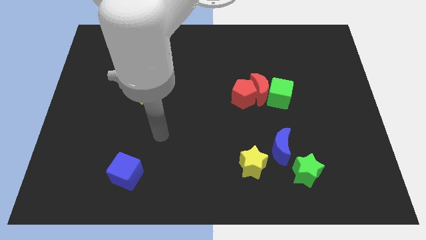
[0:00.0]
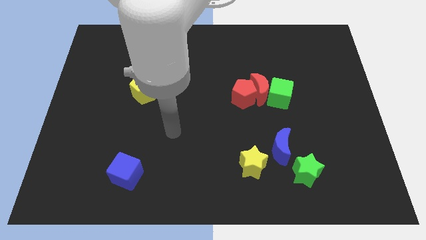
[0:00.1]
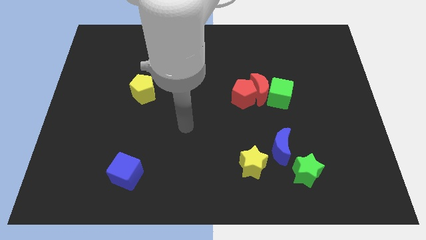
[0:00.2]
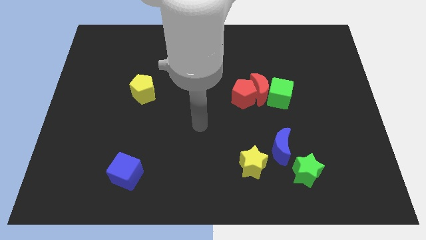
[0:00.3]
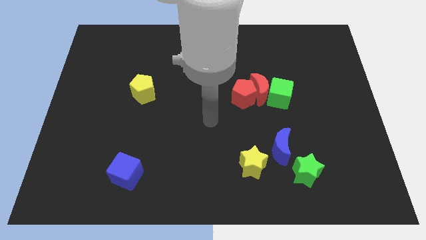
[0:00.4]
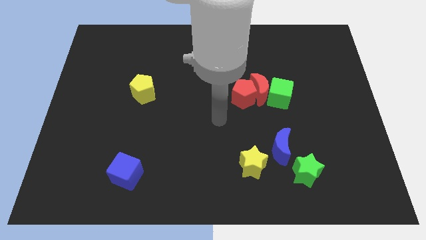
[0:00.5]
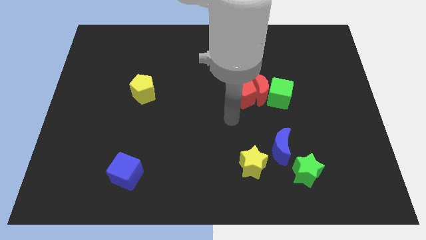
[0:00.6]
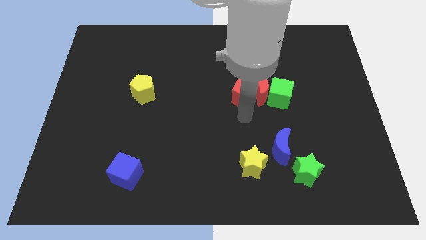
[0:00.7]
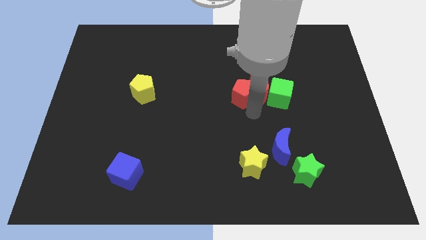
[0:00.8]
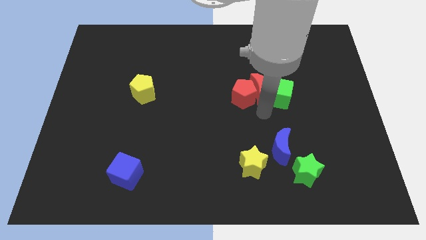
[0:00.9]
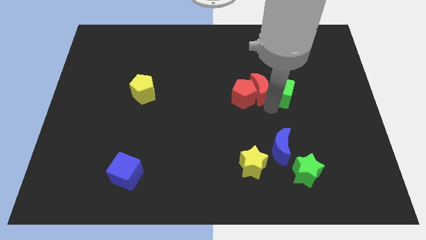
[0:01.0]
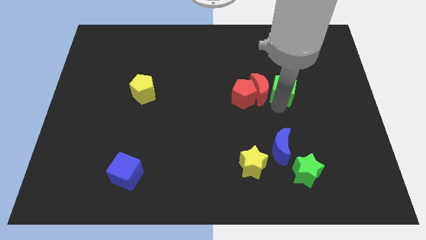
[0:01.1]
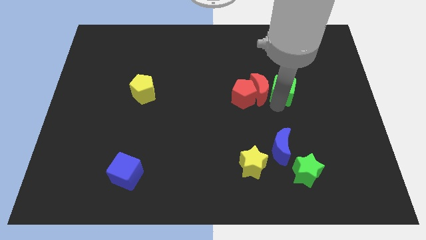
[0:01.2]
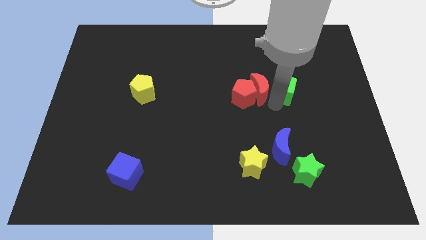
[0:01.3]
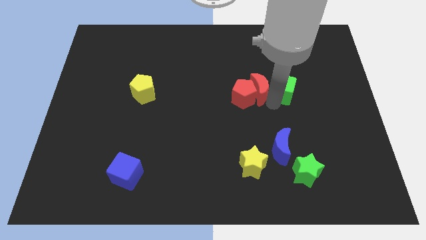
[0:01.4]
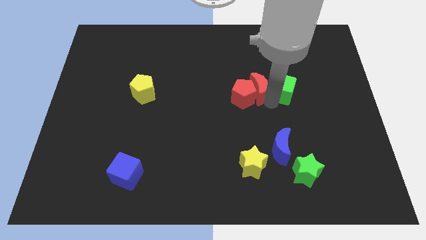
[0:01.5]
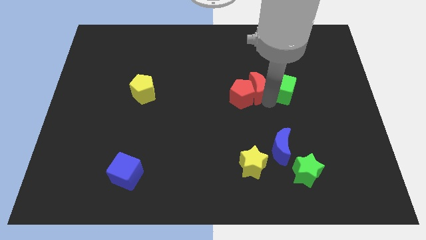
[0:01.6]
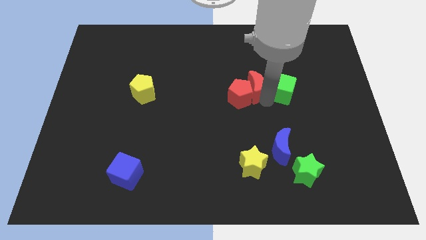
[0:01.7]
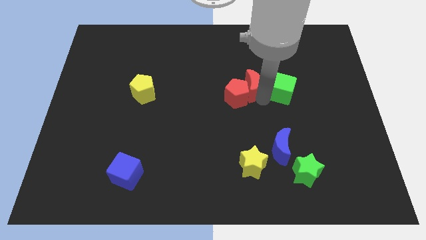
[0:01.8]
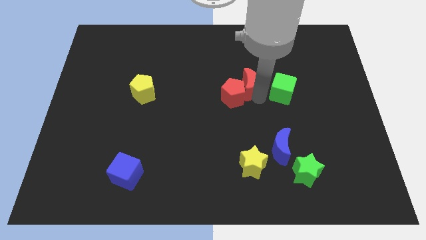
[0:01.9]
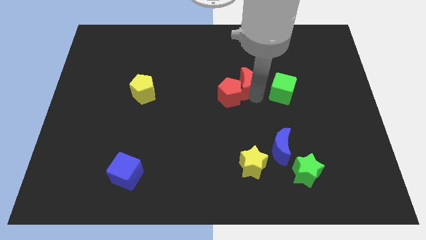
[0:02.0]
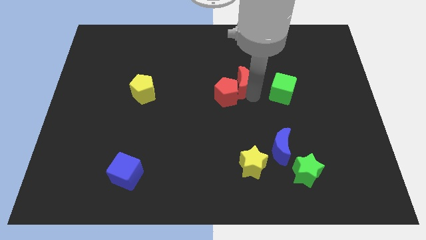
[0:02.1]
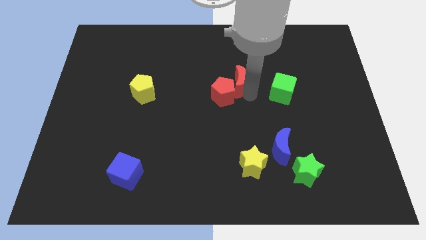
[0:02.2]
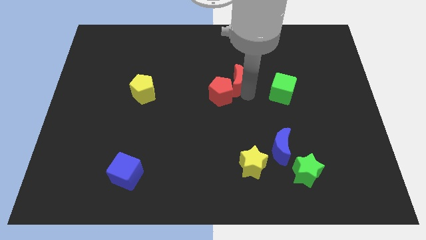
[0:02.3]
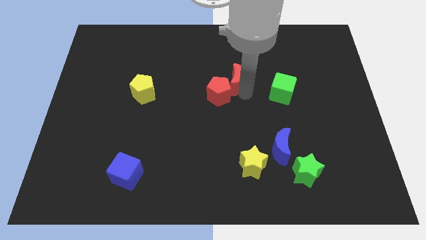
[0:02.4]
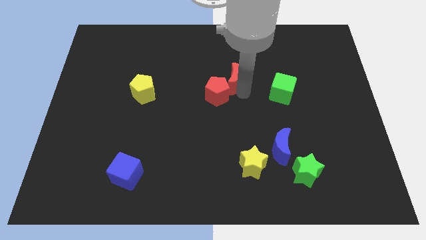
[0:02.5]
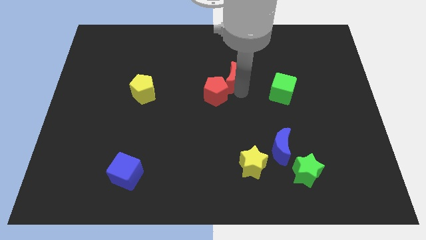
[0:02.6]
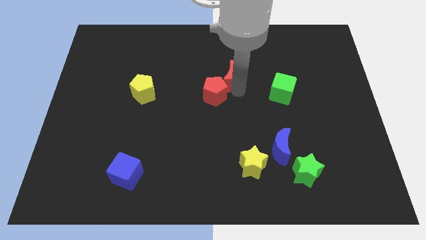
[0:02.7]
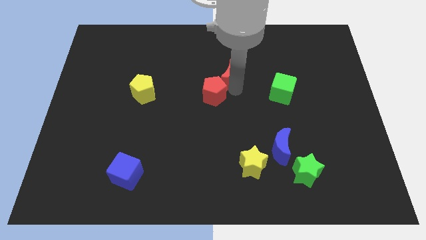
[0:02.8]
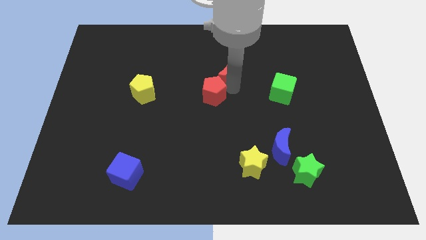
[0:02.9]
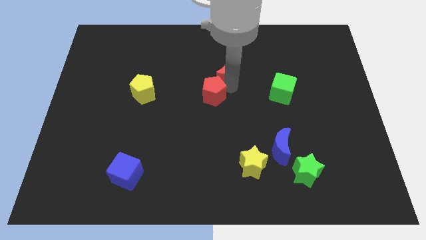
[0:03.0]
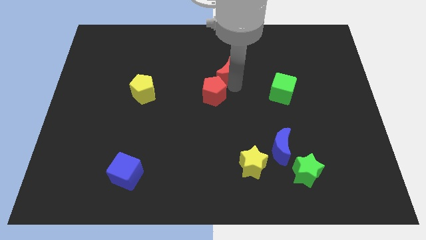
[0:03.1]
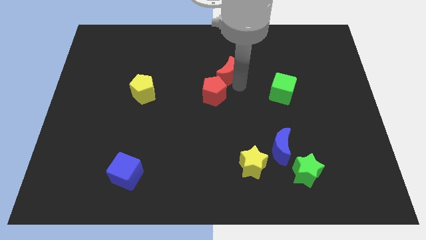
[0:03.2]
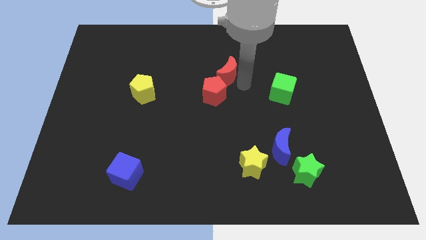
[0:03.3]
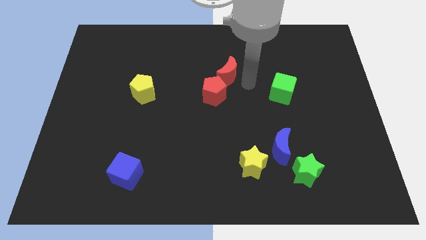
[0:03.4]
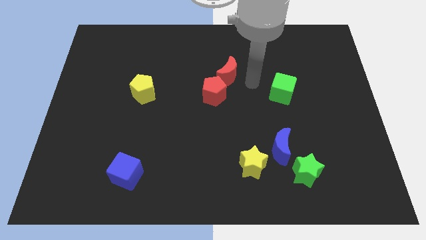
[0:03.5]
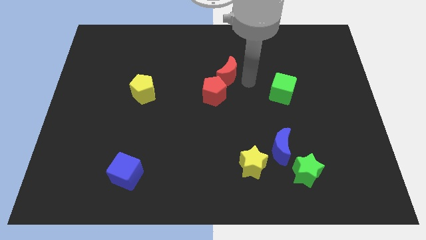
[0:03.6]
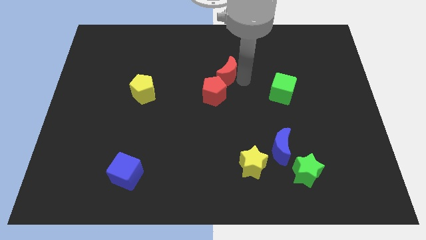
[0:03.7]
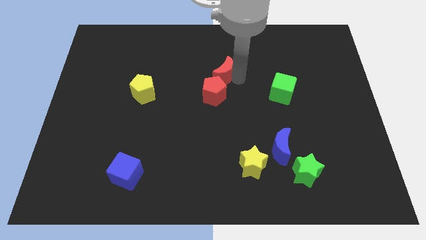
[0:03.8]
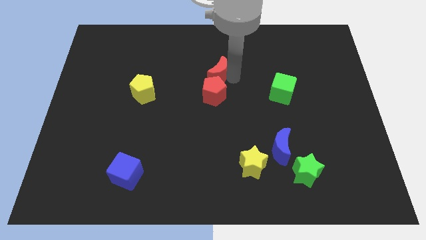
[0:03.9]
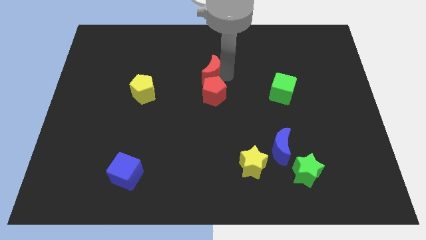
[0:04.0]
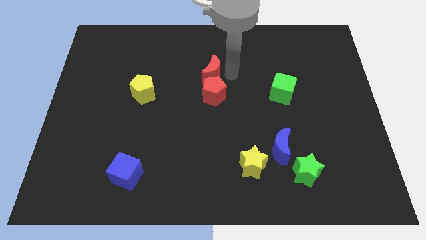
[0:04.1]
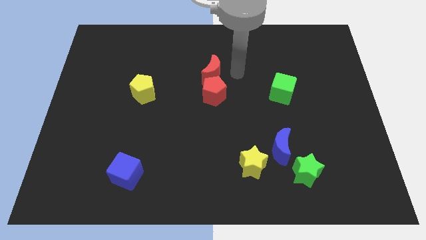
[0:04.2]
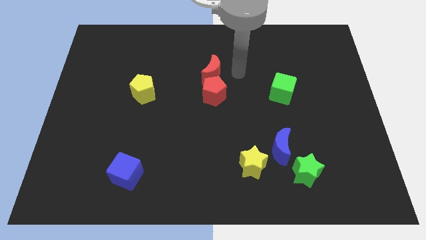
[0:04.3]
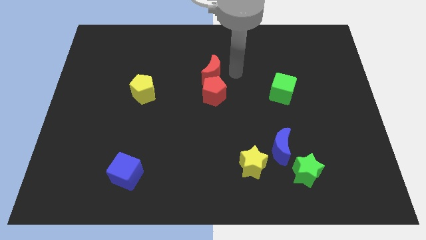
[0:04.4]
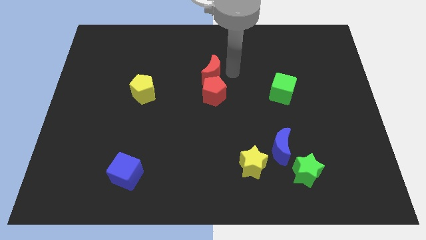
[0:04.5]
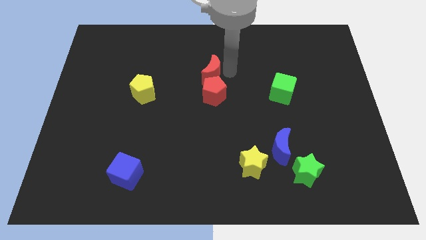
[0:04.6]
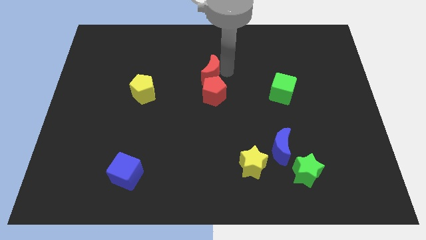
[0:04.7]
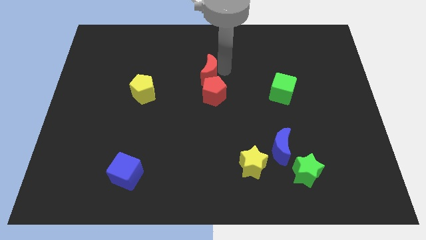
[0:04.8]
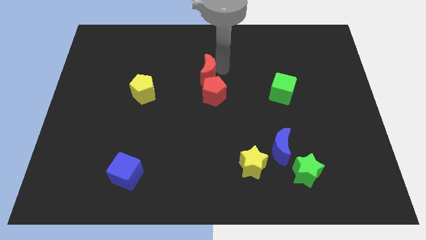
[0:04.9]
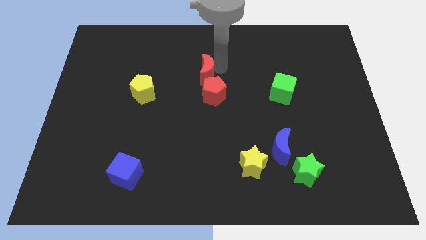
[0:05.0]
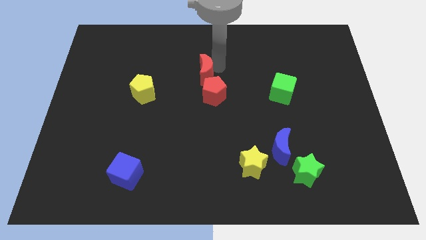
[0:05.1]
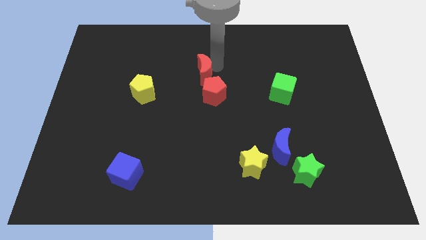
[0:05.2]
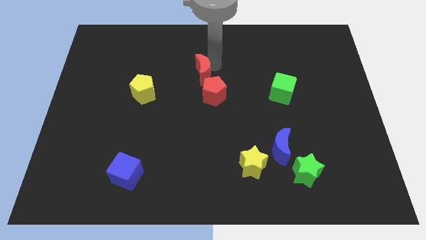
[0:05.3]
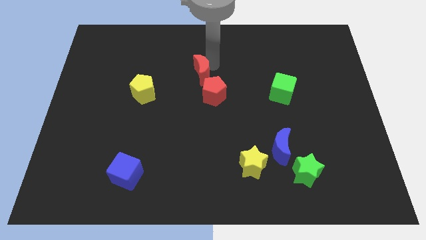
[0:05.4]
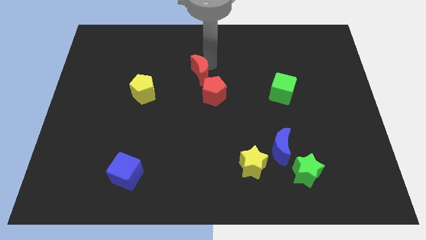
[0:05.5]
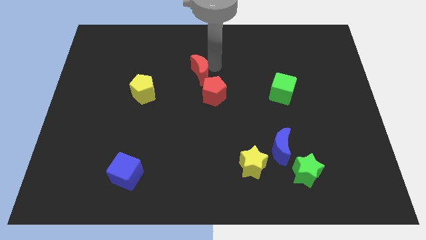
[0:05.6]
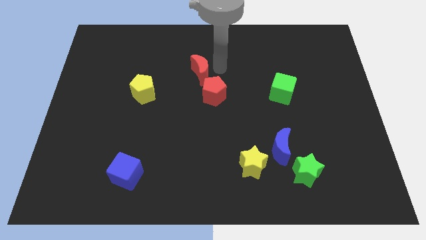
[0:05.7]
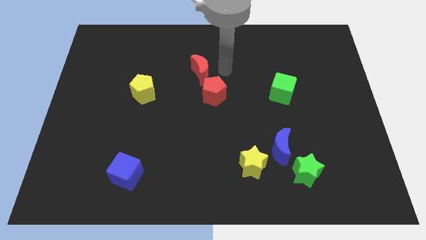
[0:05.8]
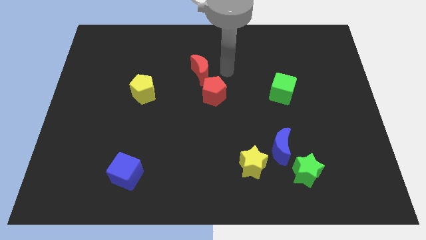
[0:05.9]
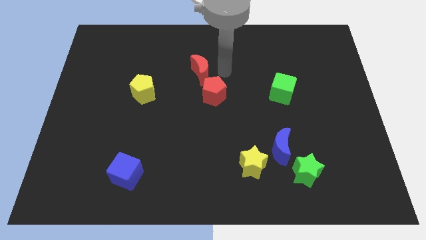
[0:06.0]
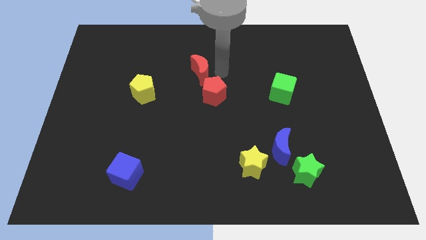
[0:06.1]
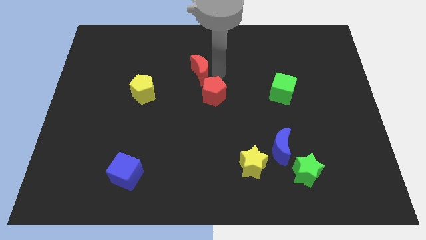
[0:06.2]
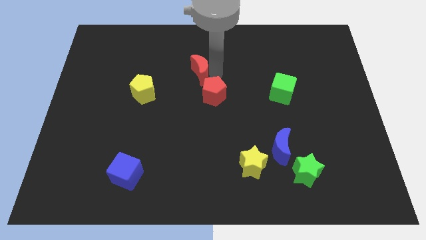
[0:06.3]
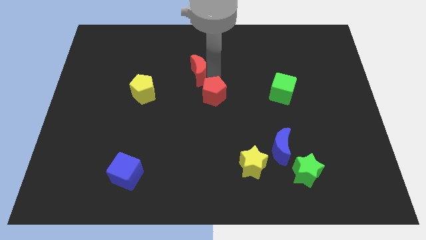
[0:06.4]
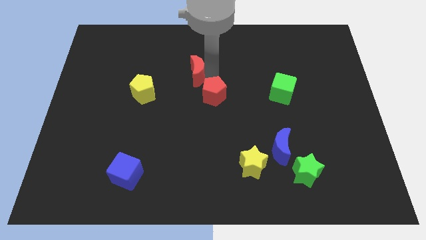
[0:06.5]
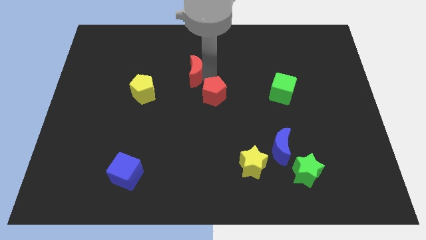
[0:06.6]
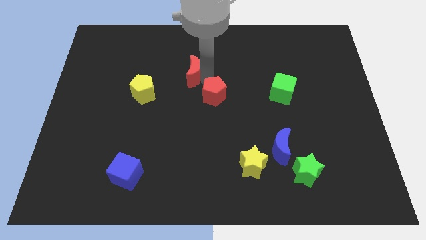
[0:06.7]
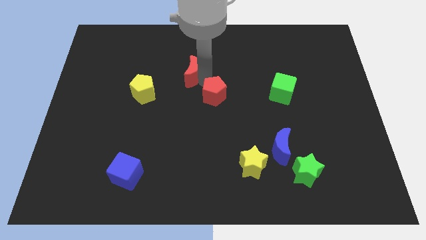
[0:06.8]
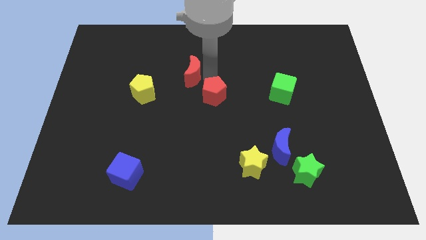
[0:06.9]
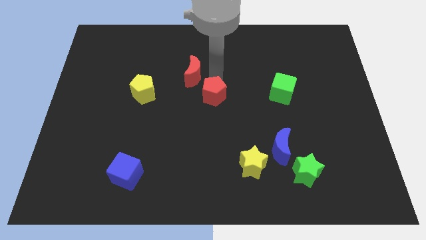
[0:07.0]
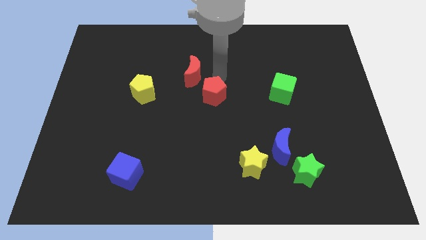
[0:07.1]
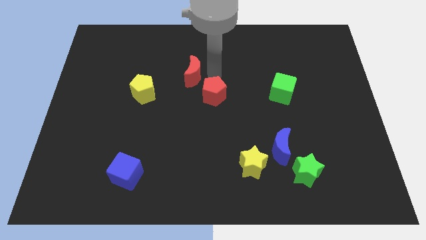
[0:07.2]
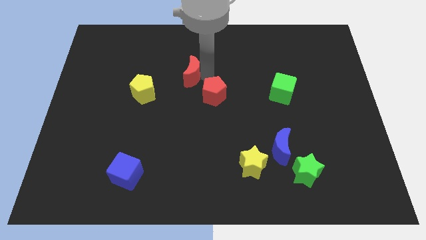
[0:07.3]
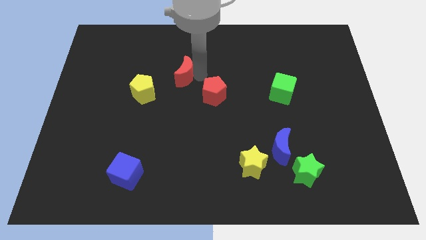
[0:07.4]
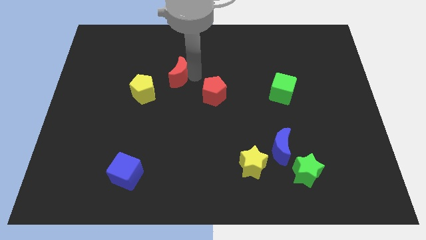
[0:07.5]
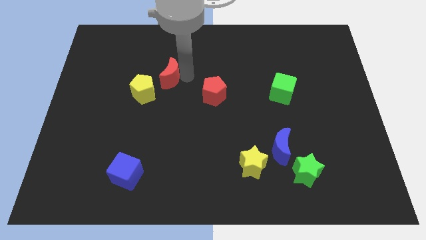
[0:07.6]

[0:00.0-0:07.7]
push the red moon left
